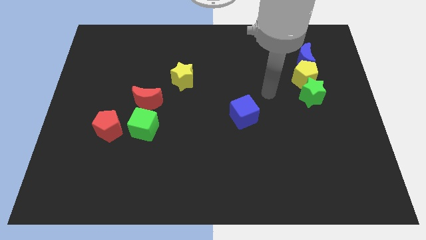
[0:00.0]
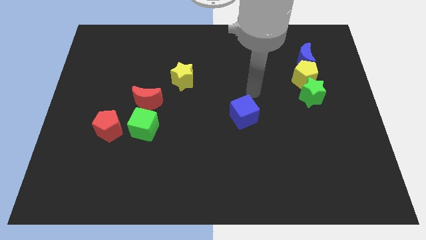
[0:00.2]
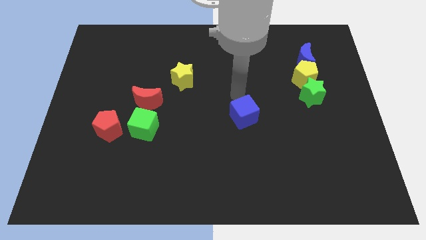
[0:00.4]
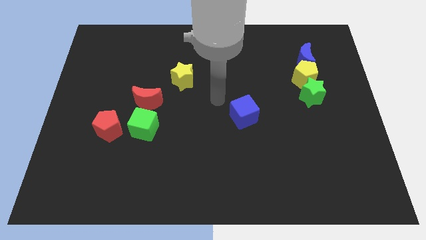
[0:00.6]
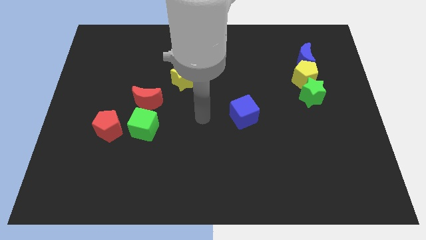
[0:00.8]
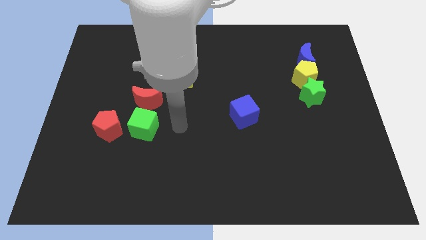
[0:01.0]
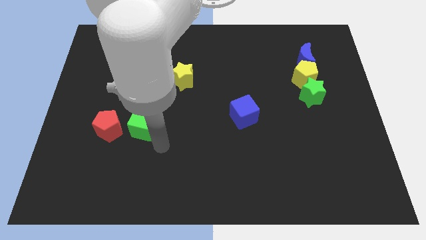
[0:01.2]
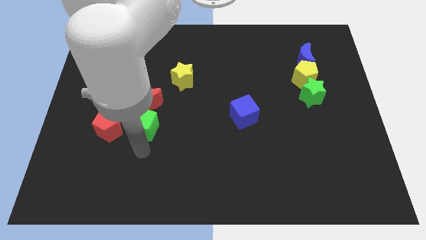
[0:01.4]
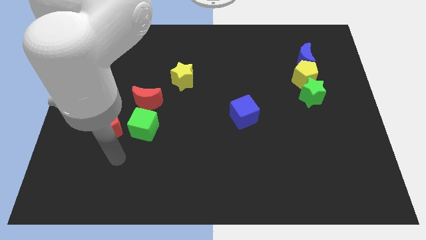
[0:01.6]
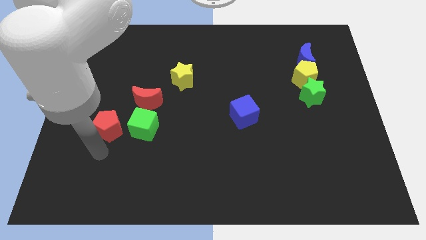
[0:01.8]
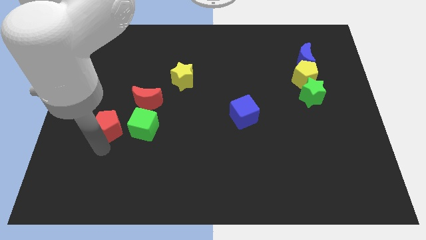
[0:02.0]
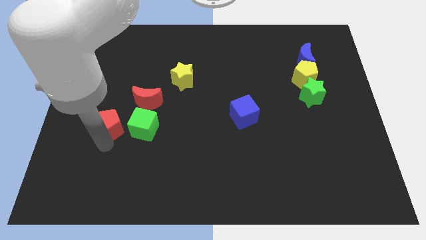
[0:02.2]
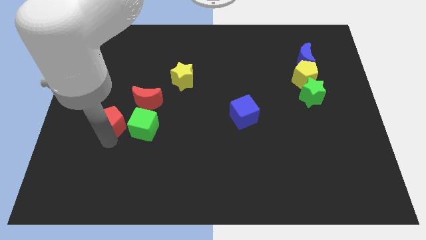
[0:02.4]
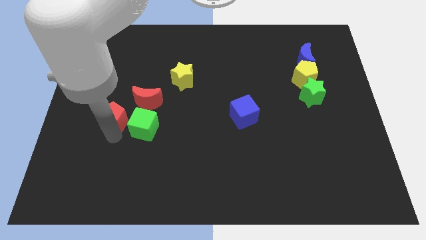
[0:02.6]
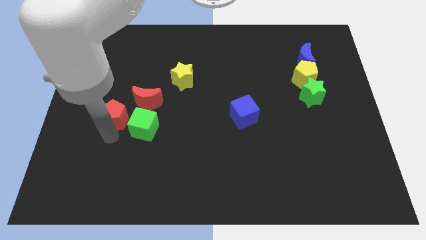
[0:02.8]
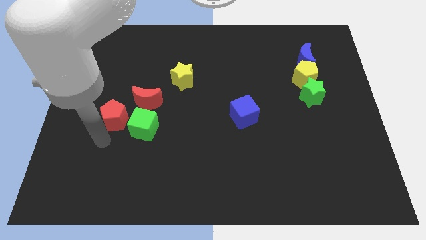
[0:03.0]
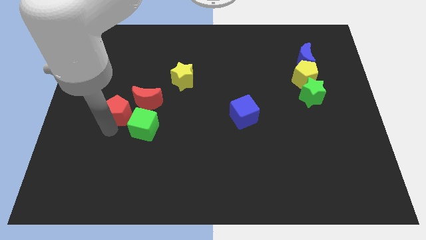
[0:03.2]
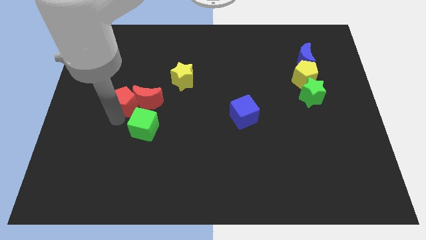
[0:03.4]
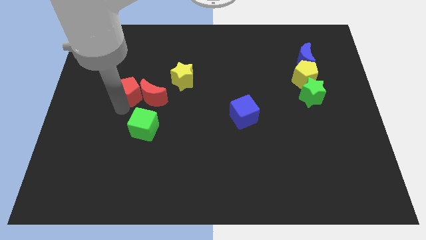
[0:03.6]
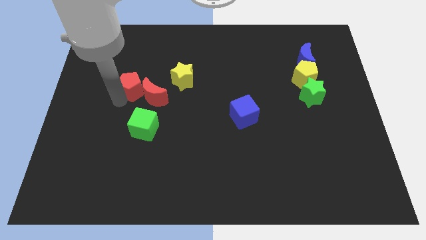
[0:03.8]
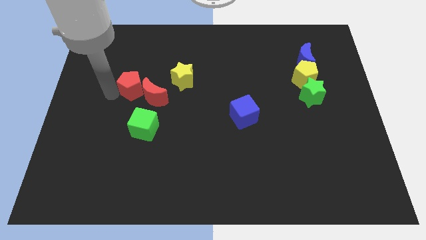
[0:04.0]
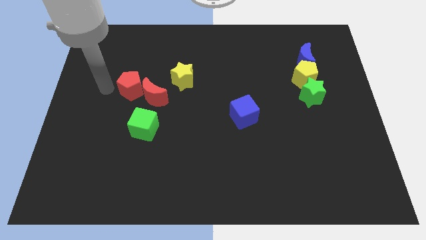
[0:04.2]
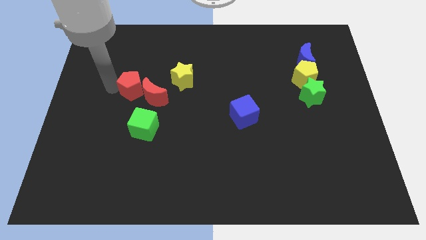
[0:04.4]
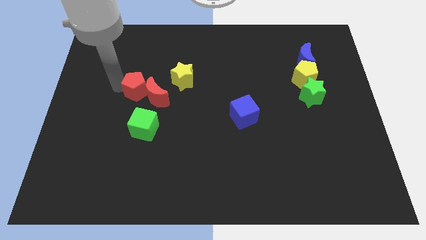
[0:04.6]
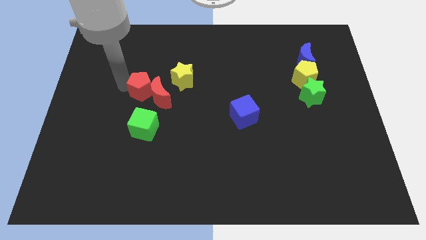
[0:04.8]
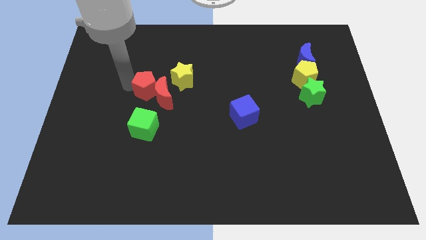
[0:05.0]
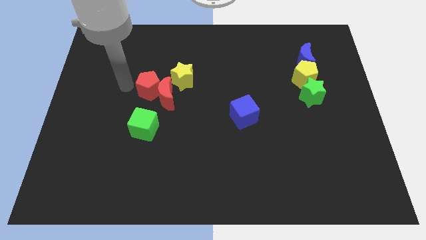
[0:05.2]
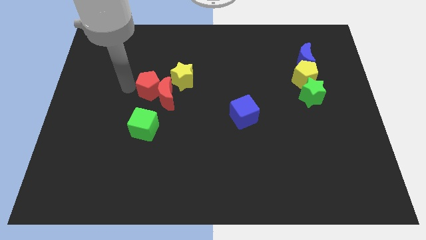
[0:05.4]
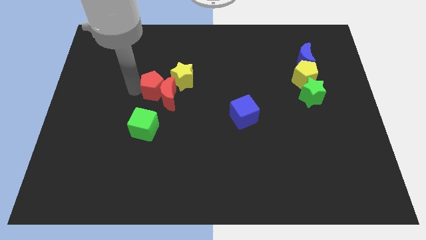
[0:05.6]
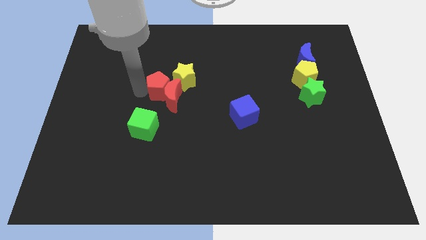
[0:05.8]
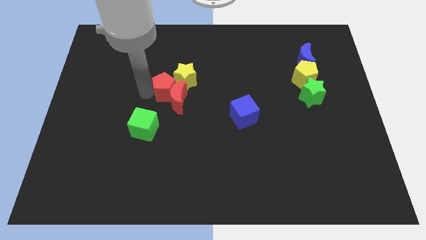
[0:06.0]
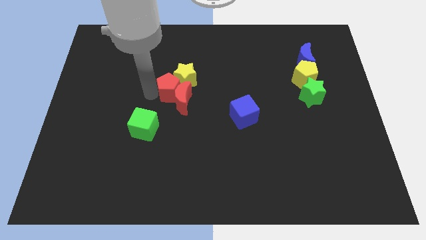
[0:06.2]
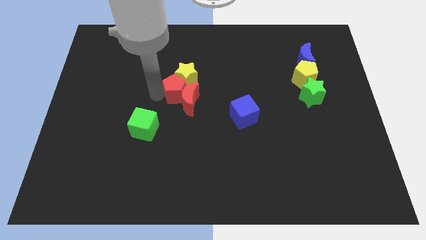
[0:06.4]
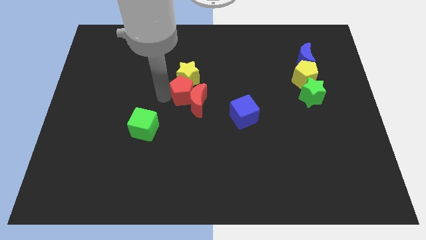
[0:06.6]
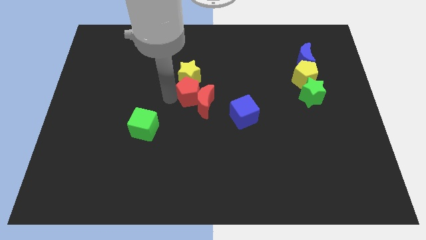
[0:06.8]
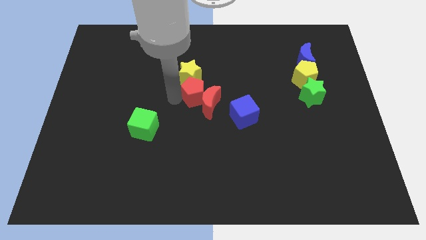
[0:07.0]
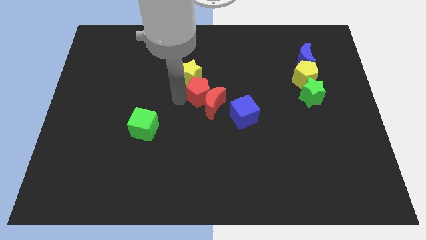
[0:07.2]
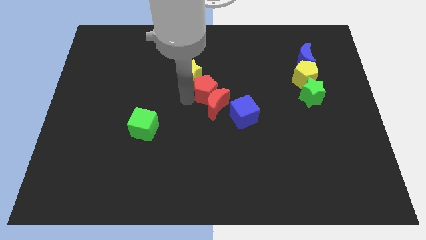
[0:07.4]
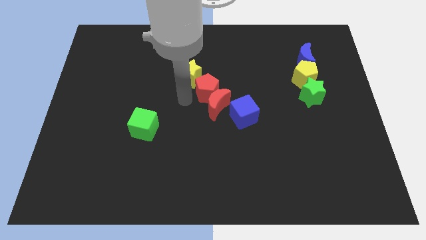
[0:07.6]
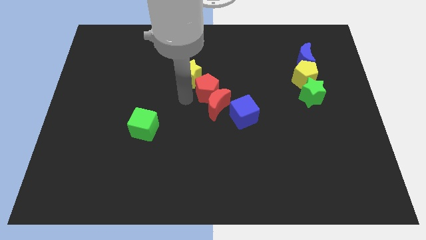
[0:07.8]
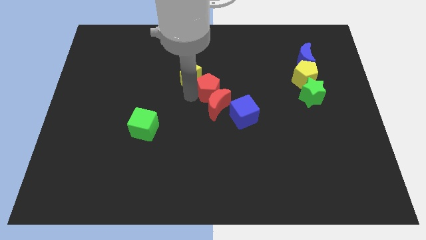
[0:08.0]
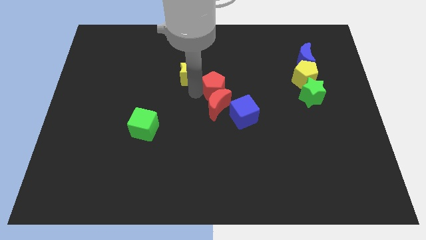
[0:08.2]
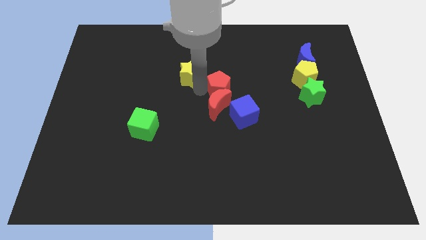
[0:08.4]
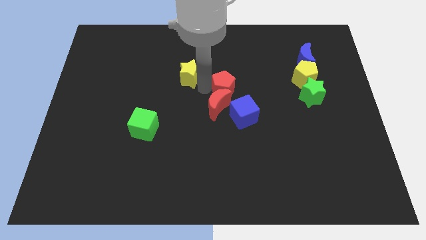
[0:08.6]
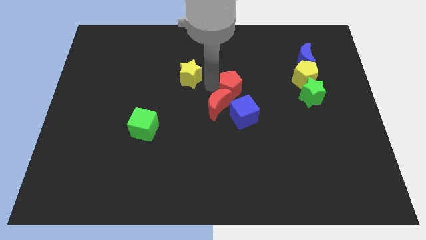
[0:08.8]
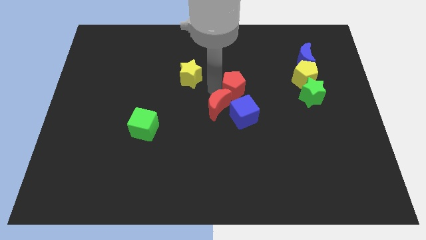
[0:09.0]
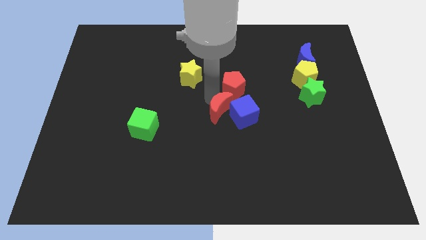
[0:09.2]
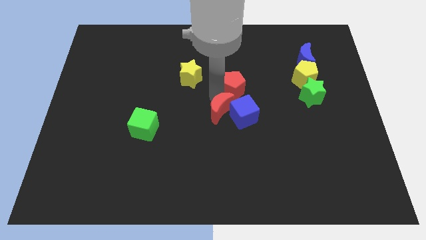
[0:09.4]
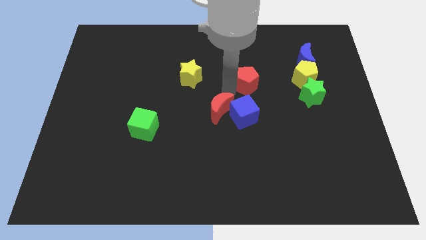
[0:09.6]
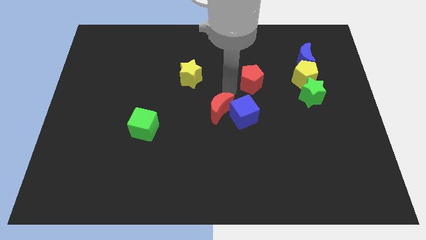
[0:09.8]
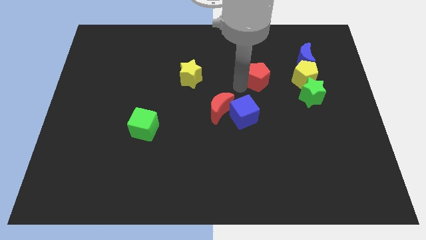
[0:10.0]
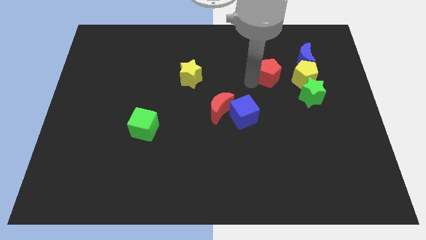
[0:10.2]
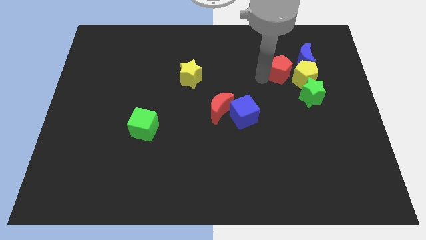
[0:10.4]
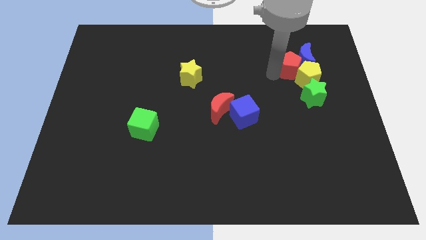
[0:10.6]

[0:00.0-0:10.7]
move the red pentagon towards the blue moon
